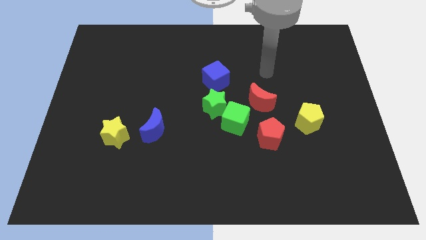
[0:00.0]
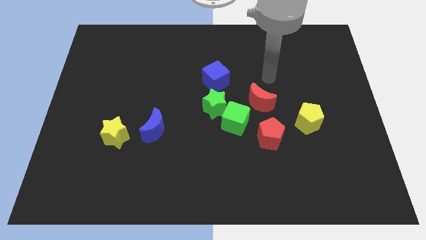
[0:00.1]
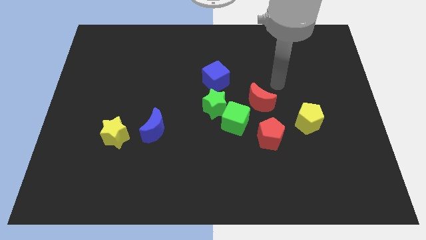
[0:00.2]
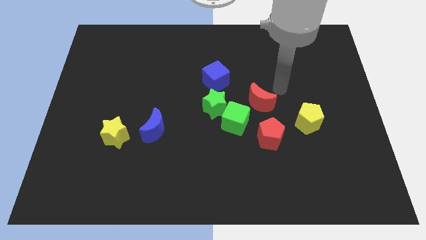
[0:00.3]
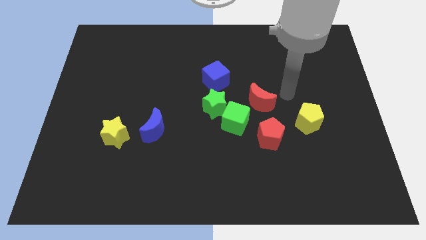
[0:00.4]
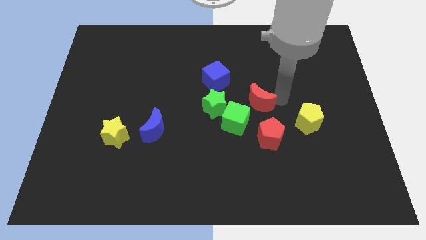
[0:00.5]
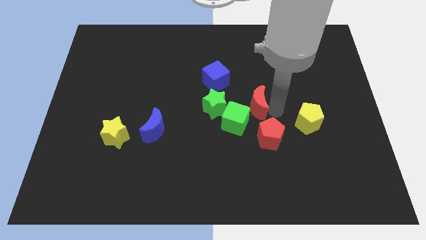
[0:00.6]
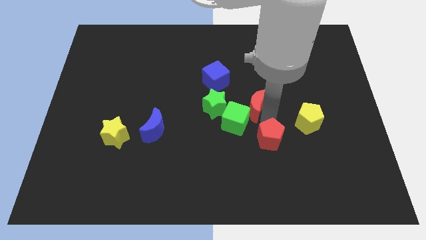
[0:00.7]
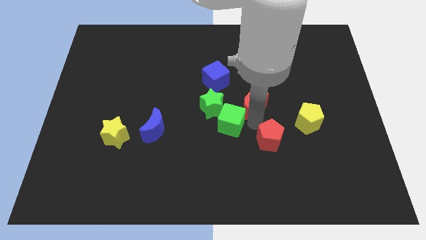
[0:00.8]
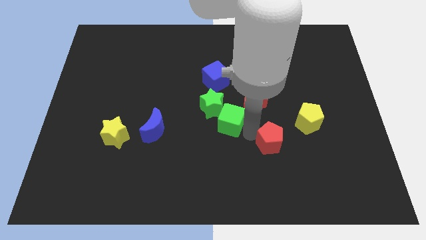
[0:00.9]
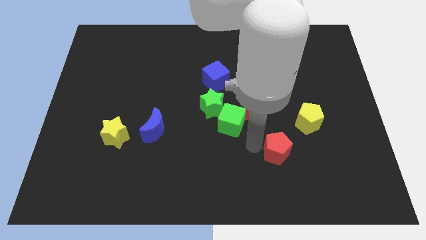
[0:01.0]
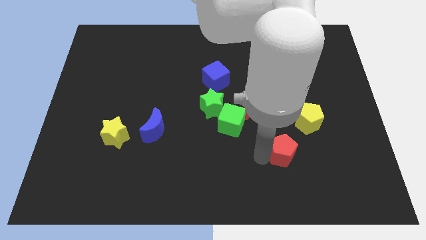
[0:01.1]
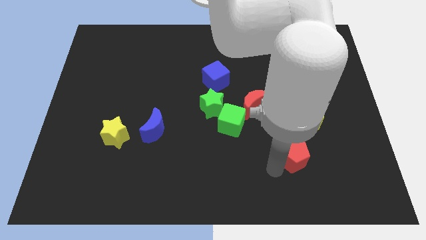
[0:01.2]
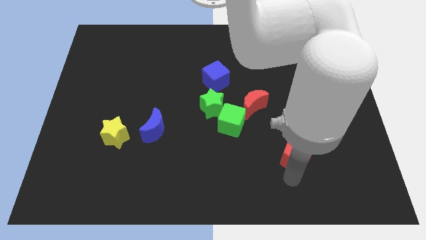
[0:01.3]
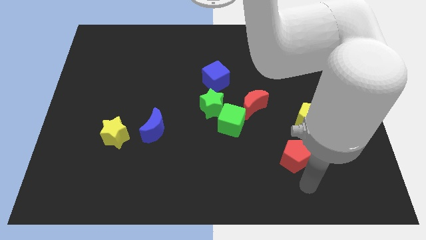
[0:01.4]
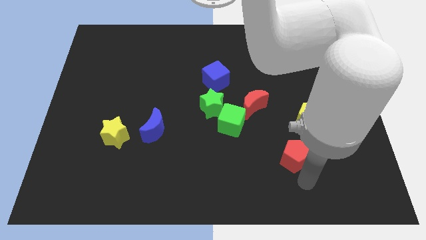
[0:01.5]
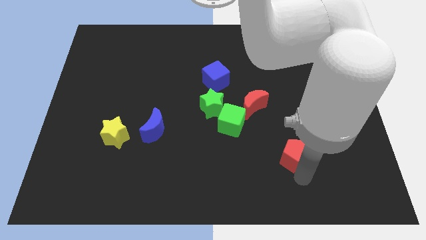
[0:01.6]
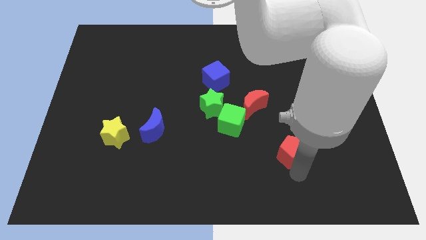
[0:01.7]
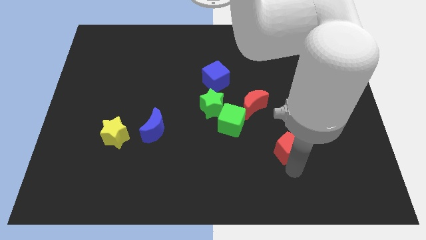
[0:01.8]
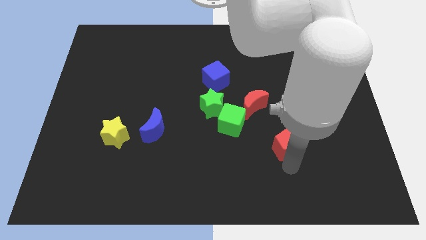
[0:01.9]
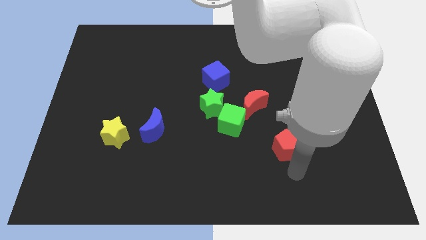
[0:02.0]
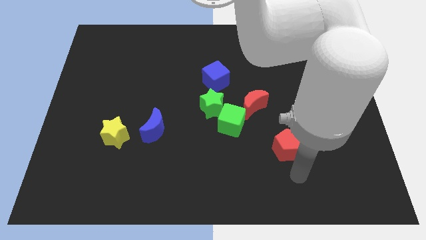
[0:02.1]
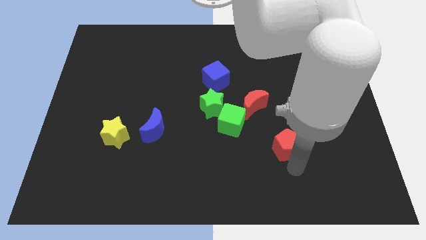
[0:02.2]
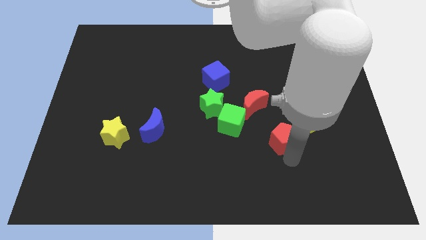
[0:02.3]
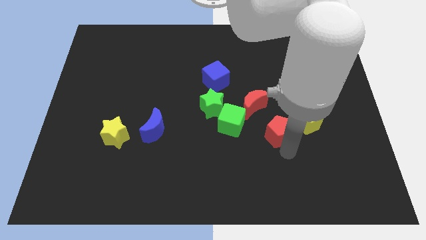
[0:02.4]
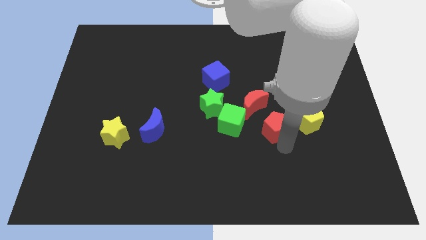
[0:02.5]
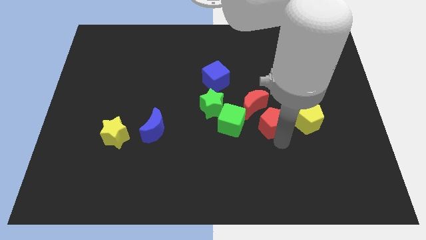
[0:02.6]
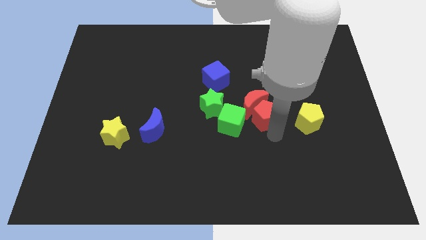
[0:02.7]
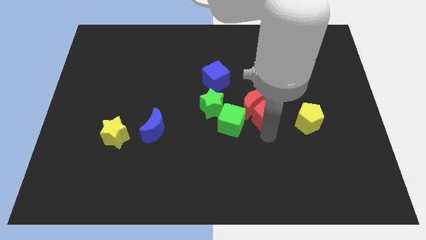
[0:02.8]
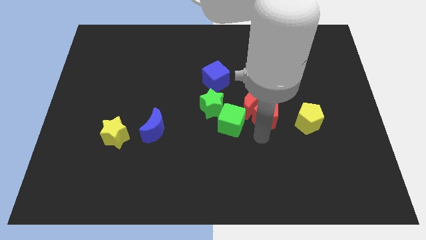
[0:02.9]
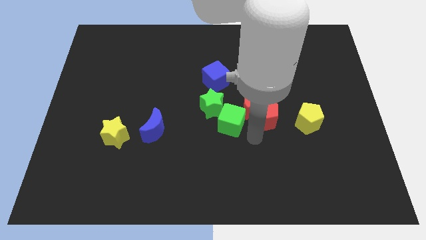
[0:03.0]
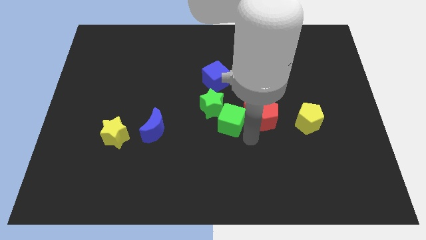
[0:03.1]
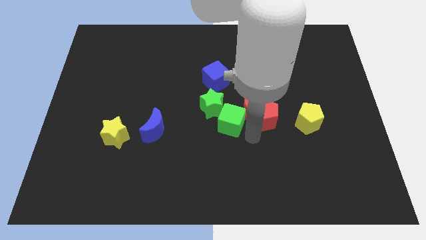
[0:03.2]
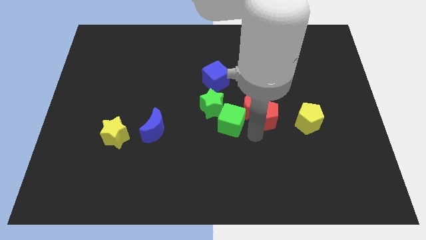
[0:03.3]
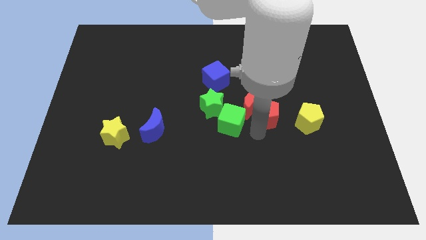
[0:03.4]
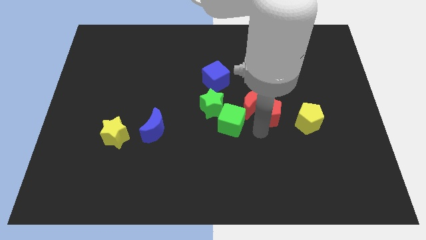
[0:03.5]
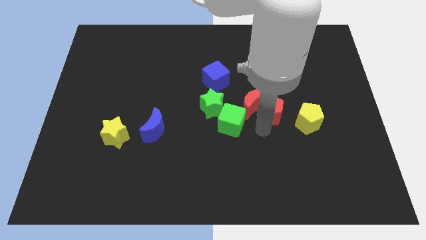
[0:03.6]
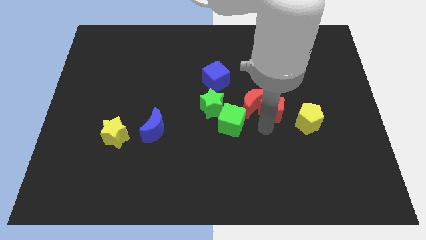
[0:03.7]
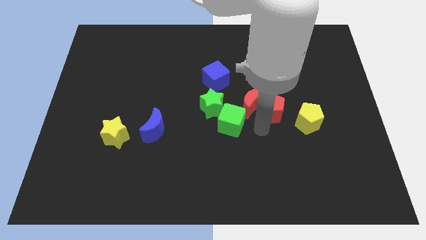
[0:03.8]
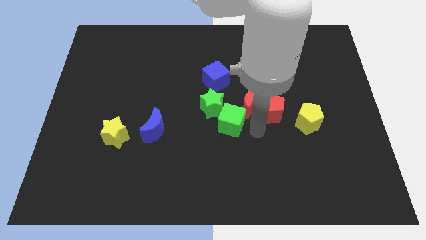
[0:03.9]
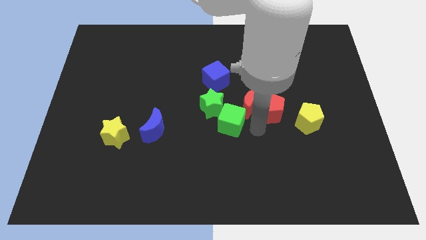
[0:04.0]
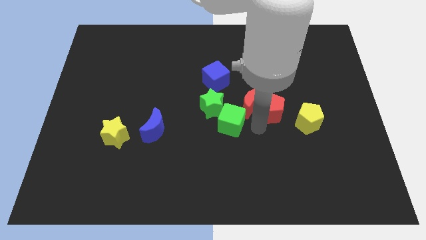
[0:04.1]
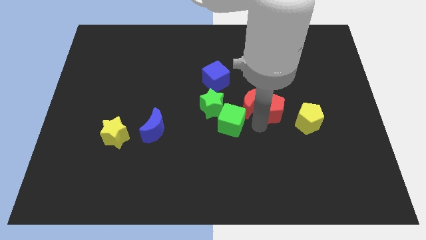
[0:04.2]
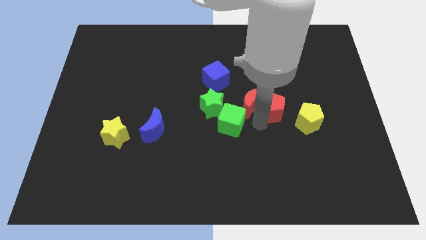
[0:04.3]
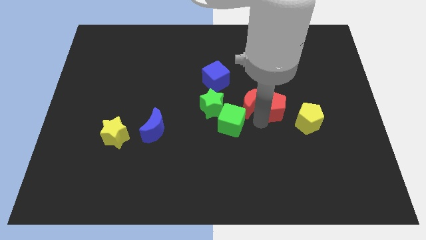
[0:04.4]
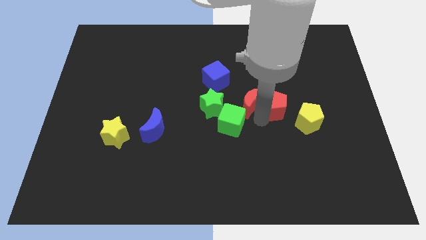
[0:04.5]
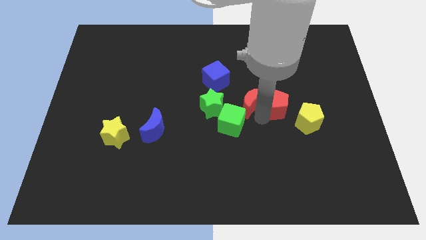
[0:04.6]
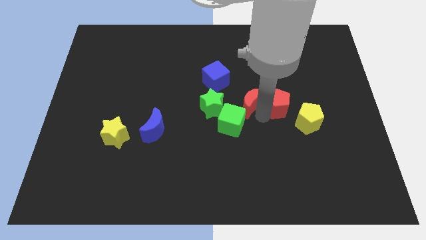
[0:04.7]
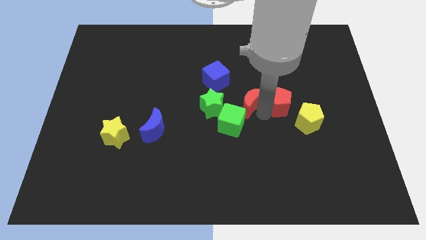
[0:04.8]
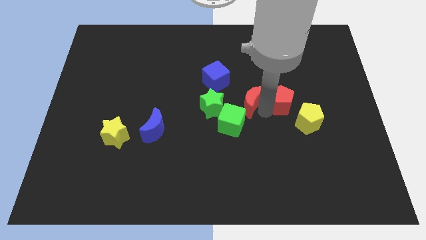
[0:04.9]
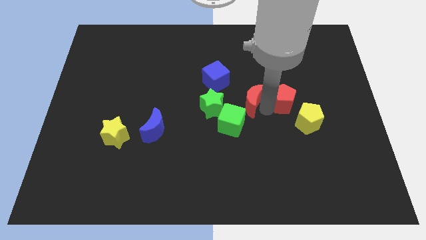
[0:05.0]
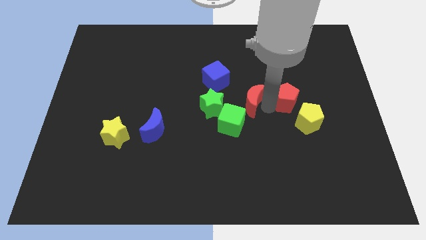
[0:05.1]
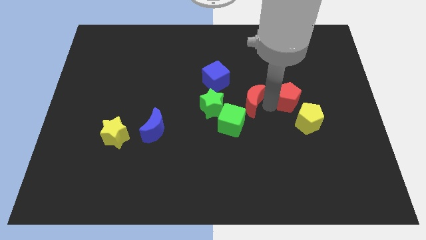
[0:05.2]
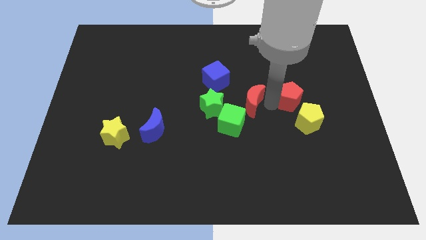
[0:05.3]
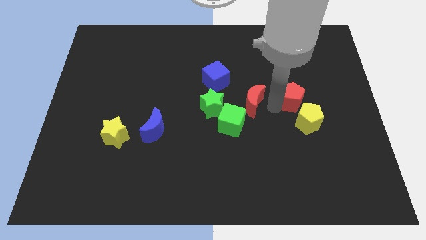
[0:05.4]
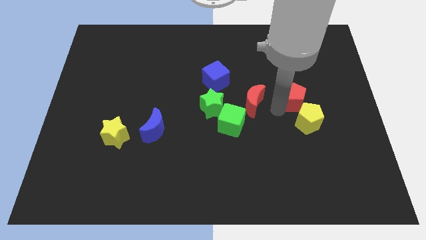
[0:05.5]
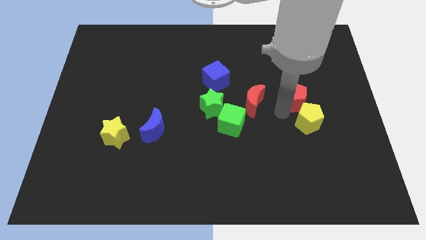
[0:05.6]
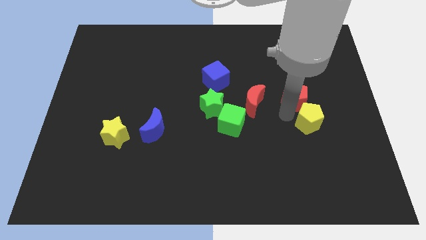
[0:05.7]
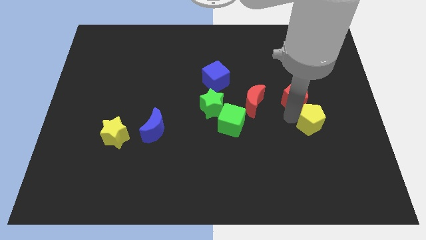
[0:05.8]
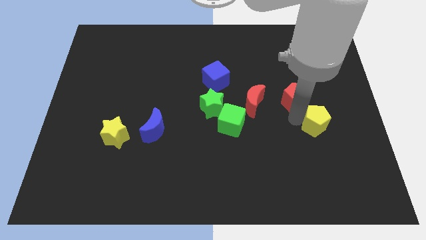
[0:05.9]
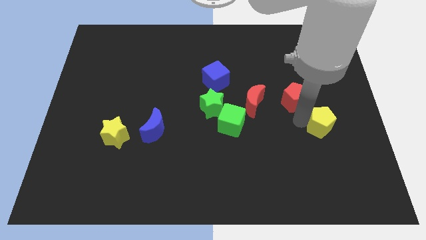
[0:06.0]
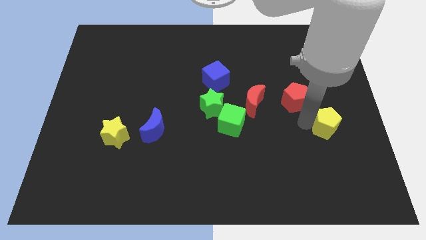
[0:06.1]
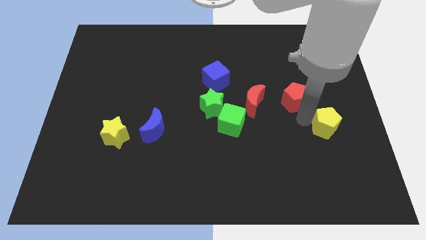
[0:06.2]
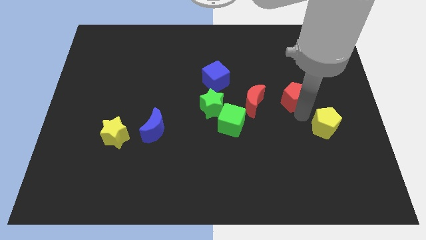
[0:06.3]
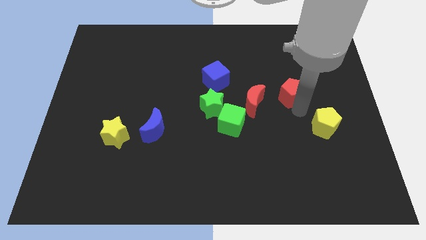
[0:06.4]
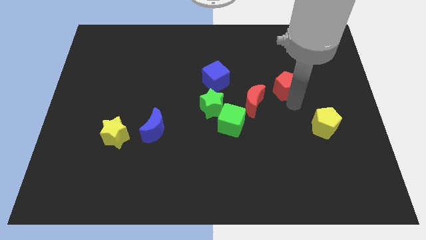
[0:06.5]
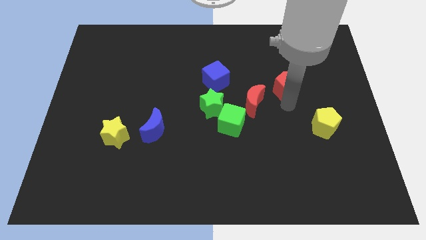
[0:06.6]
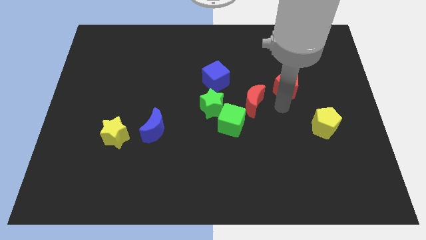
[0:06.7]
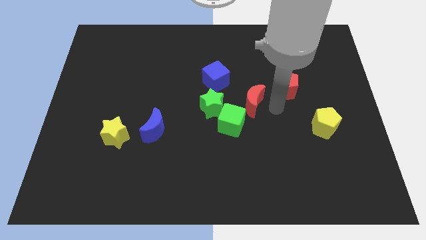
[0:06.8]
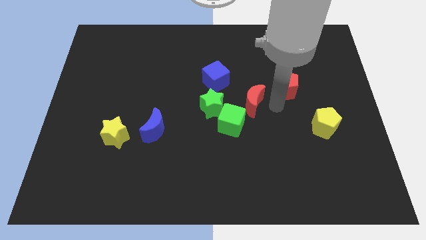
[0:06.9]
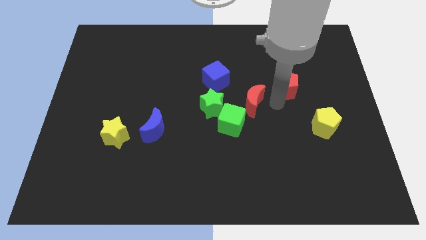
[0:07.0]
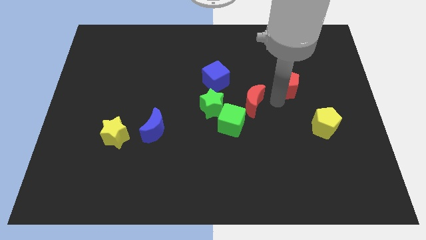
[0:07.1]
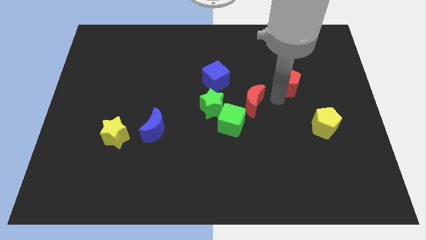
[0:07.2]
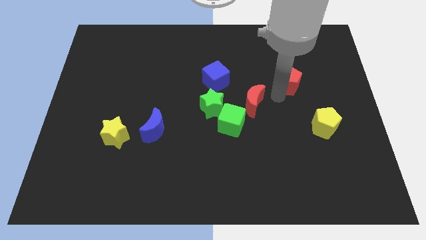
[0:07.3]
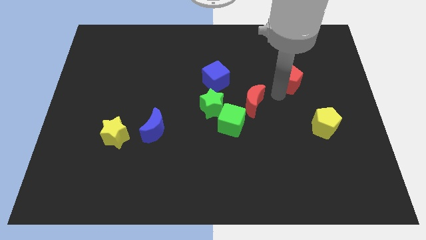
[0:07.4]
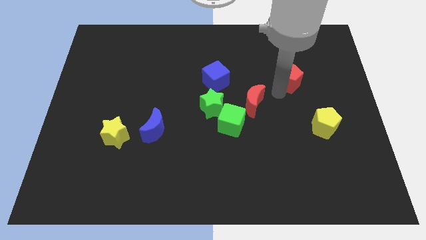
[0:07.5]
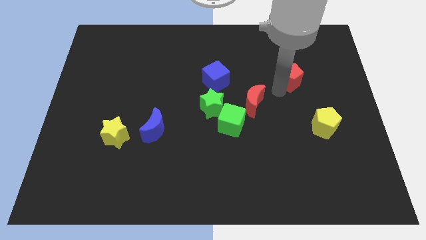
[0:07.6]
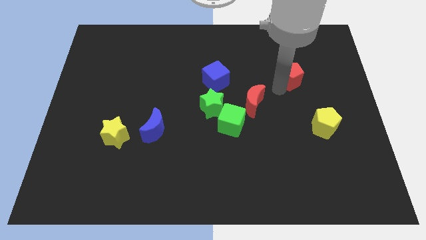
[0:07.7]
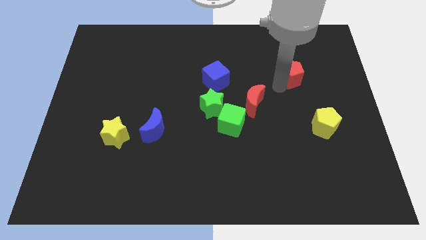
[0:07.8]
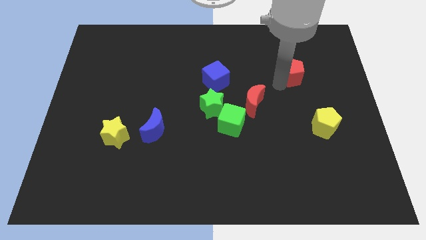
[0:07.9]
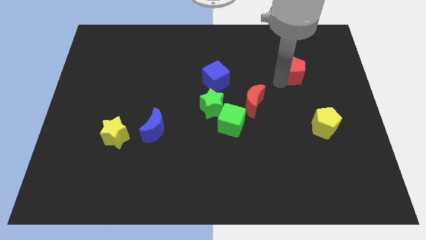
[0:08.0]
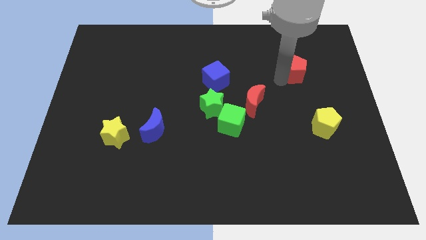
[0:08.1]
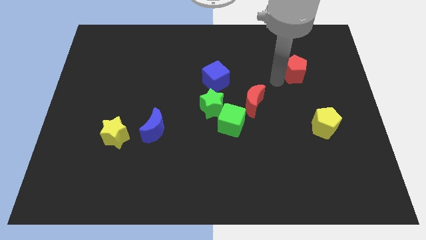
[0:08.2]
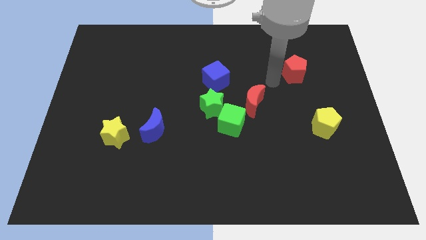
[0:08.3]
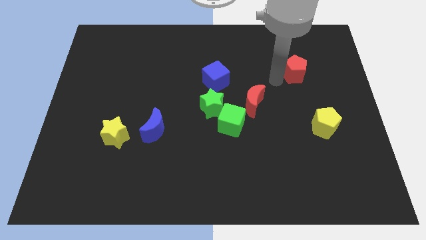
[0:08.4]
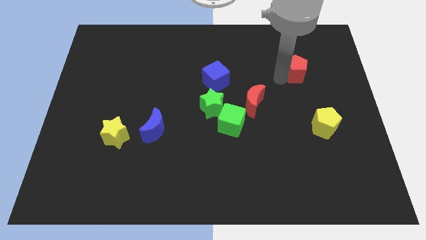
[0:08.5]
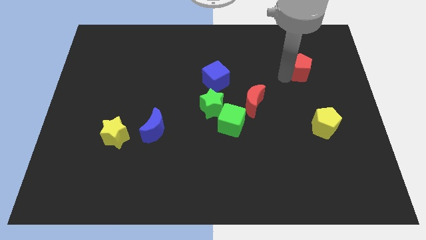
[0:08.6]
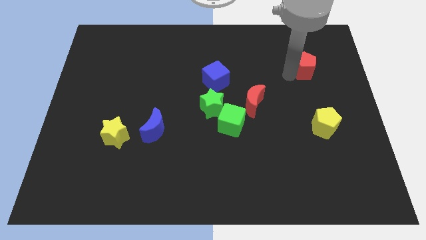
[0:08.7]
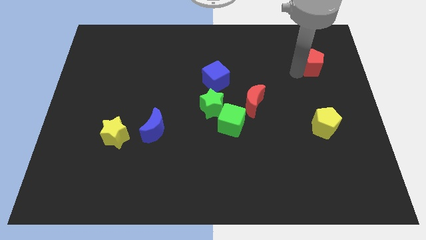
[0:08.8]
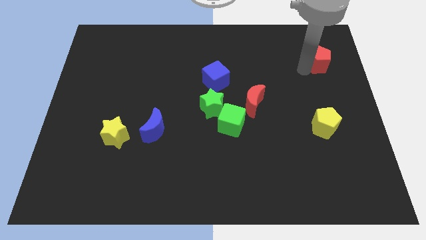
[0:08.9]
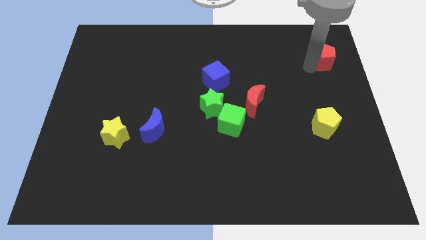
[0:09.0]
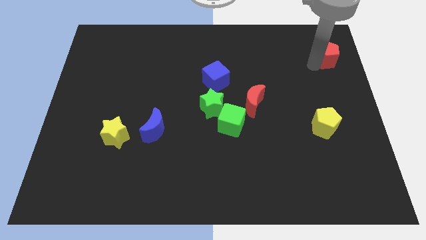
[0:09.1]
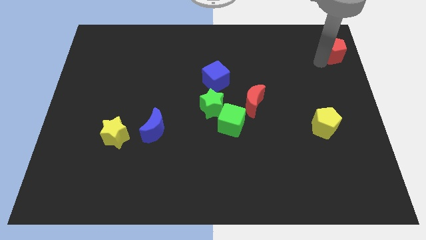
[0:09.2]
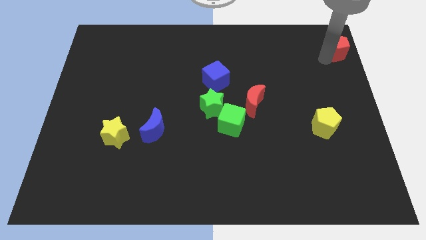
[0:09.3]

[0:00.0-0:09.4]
put the red pentagon to the upper right corner
